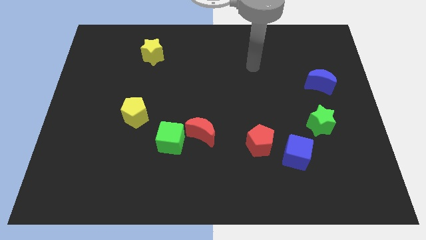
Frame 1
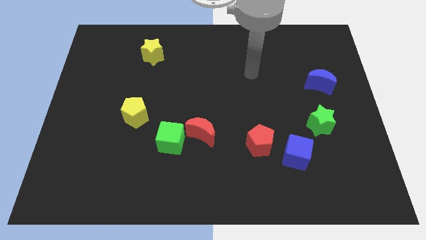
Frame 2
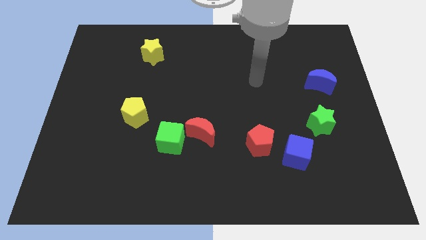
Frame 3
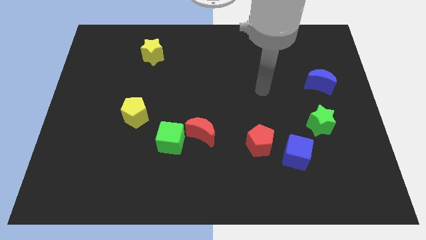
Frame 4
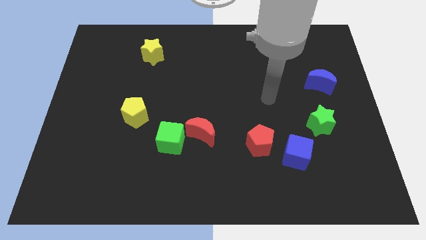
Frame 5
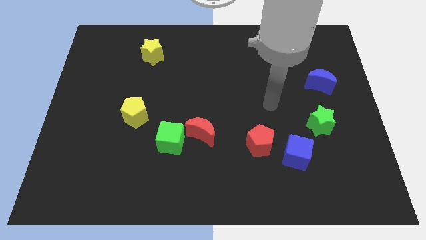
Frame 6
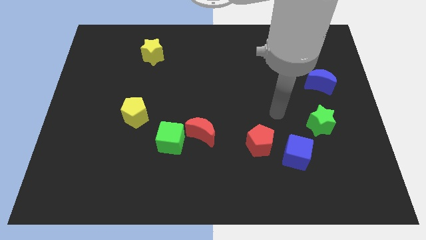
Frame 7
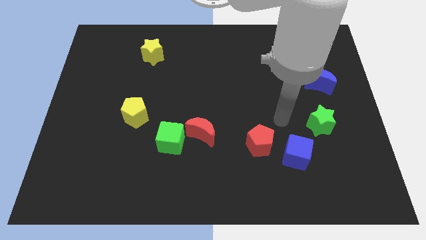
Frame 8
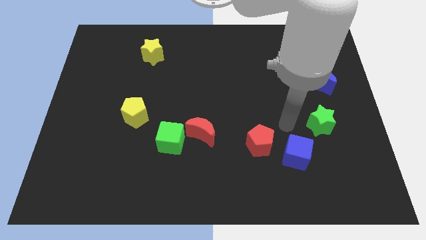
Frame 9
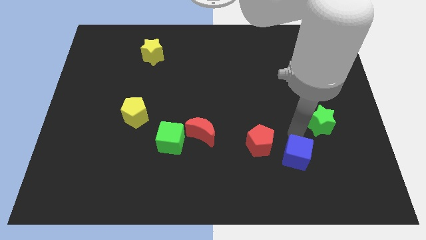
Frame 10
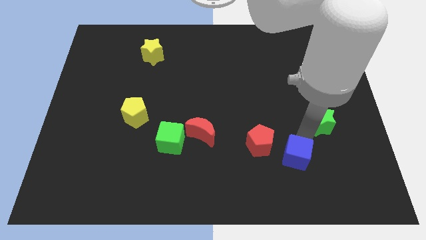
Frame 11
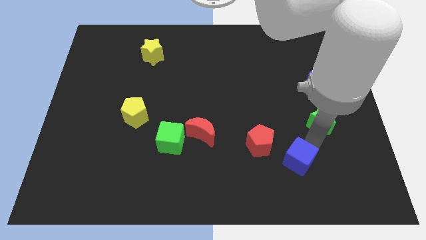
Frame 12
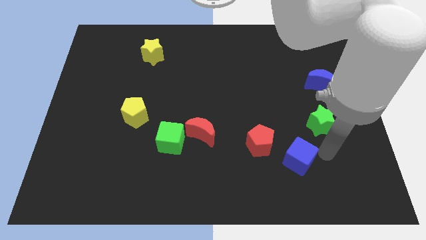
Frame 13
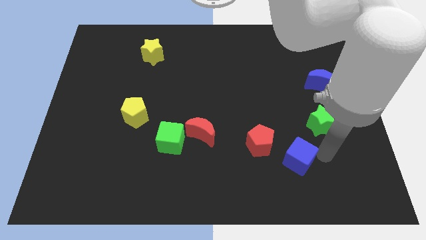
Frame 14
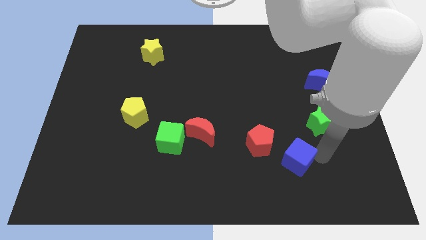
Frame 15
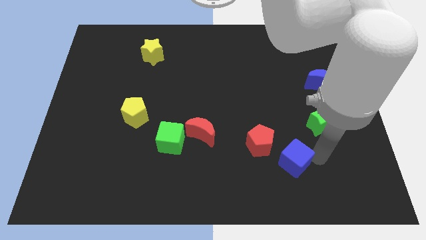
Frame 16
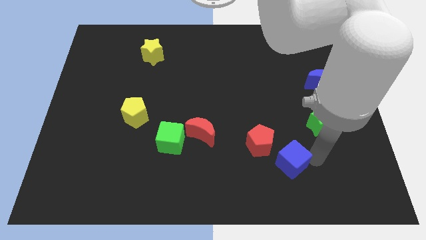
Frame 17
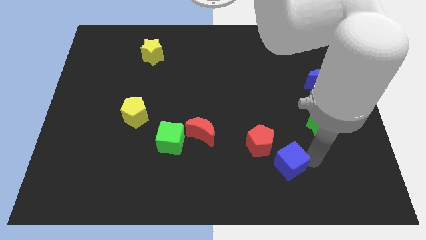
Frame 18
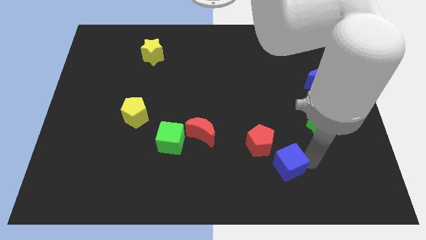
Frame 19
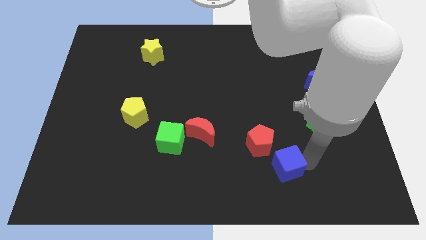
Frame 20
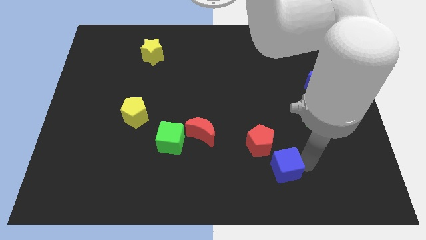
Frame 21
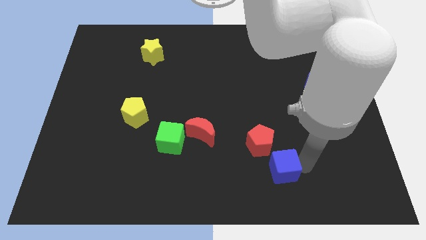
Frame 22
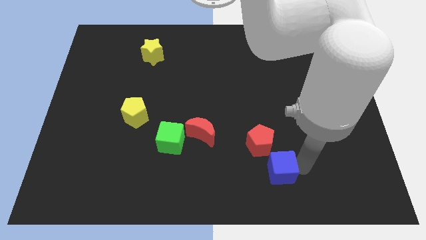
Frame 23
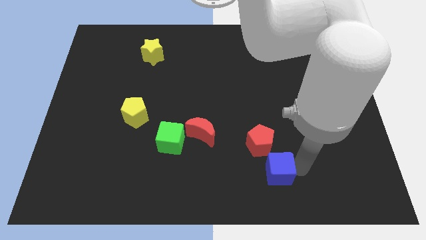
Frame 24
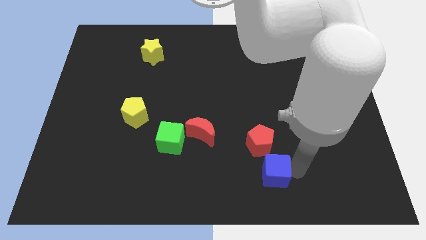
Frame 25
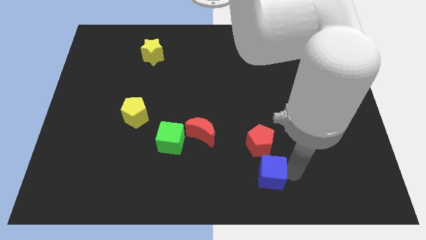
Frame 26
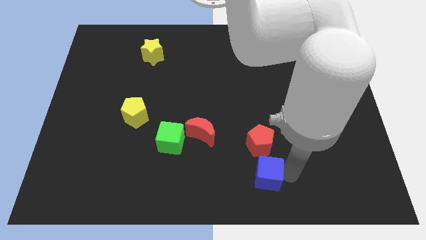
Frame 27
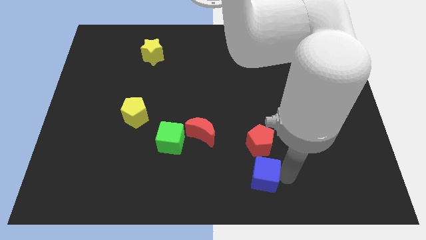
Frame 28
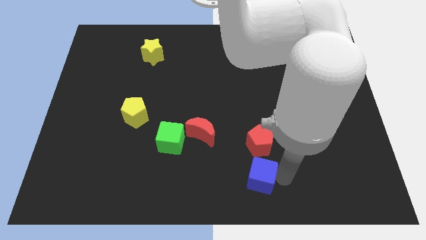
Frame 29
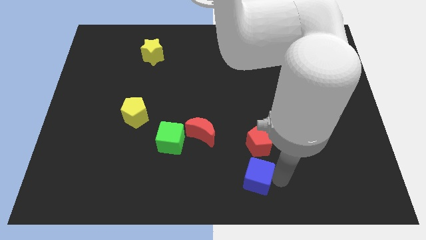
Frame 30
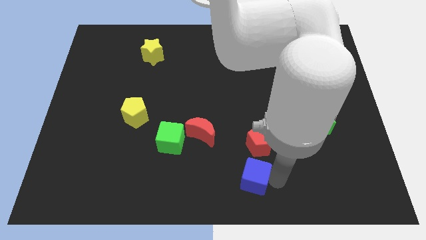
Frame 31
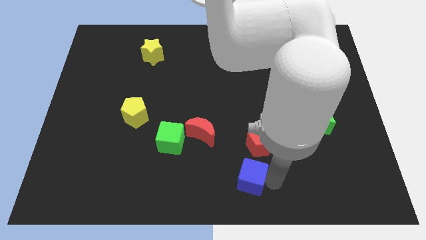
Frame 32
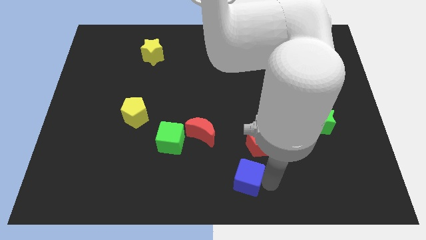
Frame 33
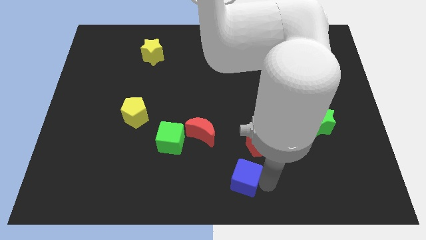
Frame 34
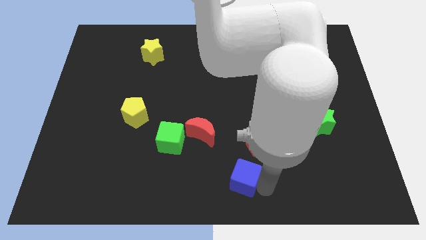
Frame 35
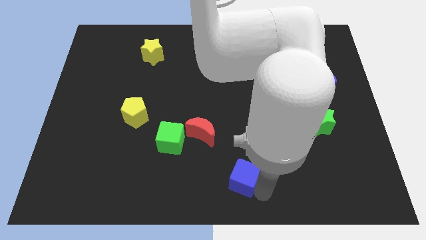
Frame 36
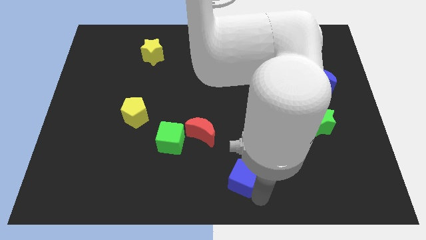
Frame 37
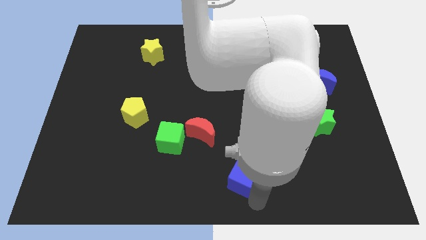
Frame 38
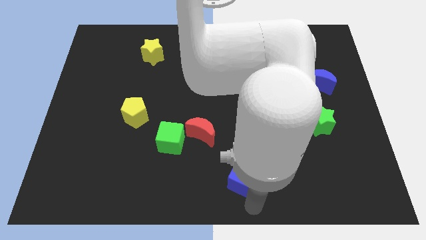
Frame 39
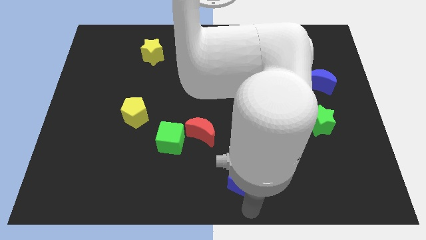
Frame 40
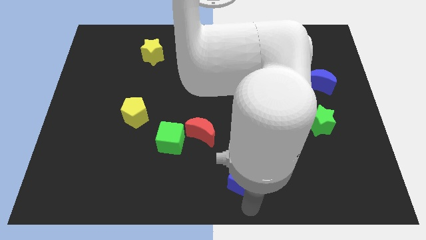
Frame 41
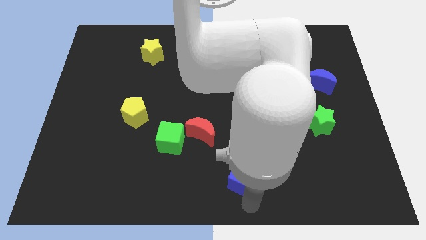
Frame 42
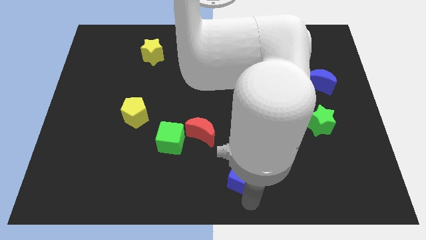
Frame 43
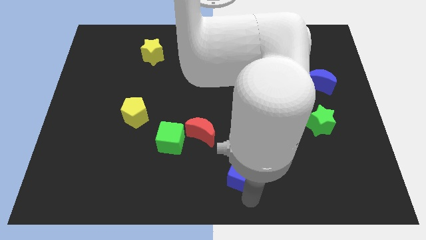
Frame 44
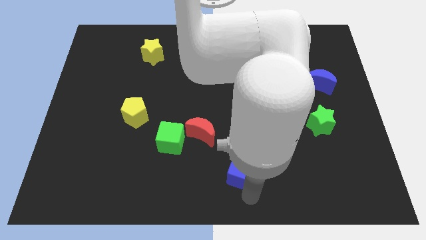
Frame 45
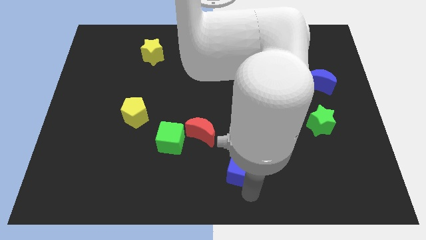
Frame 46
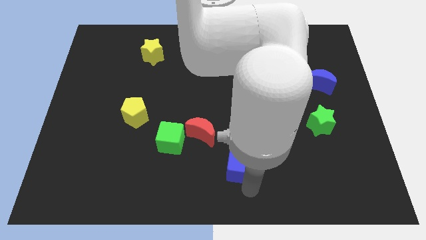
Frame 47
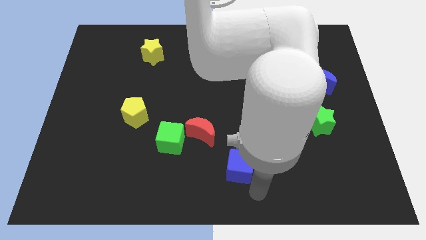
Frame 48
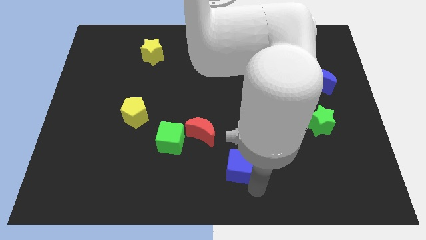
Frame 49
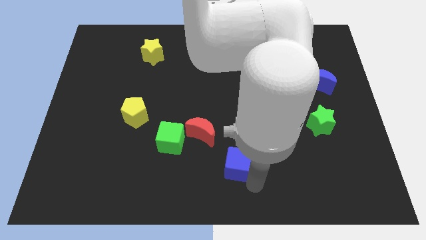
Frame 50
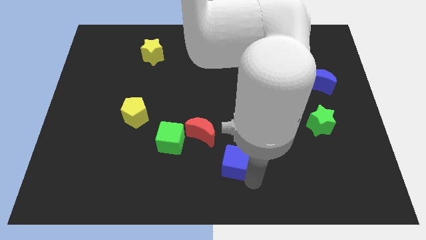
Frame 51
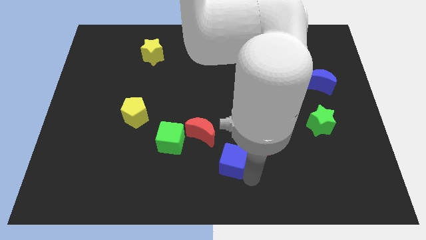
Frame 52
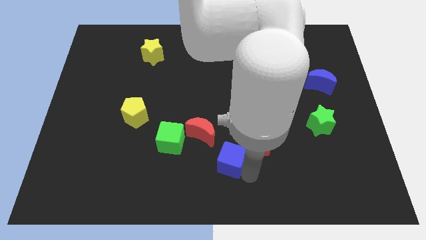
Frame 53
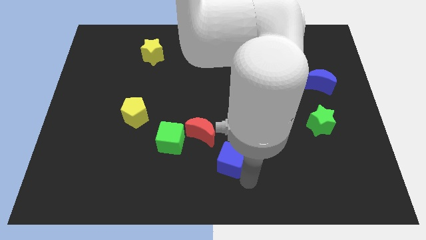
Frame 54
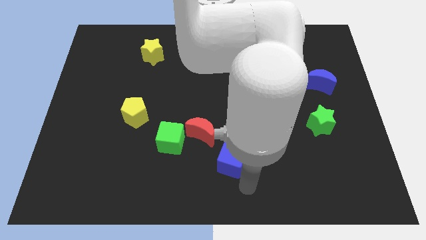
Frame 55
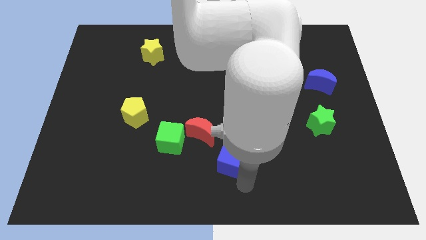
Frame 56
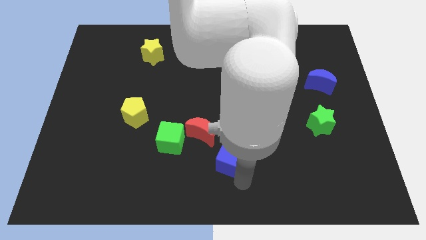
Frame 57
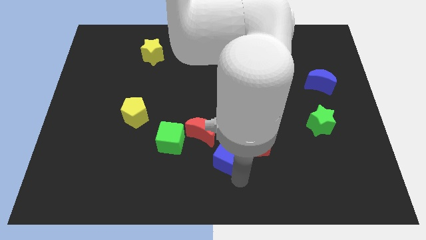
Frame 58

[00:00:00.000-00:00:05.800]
push the blue cube to the right side of the green cube

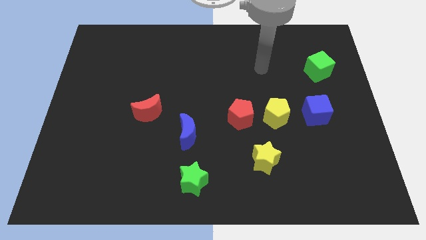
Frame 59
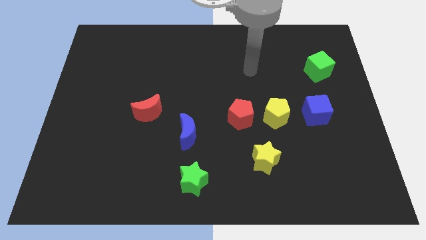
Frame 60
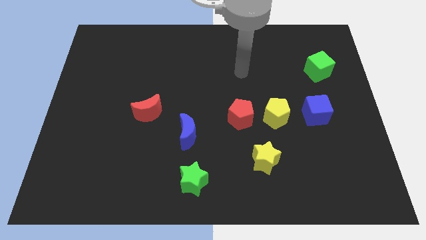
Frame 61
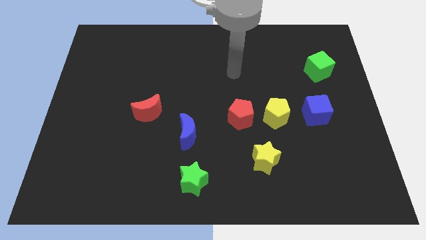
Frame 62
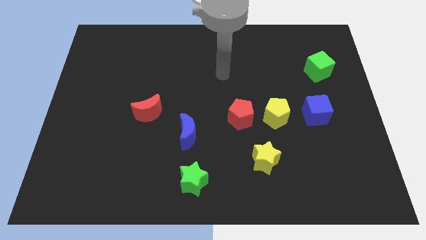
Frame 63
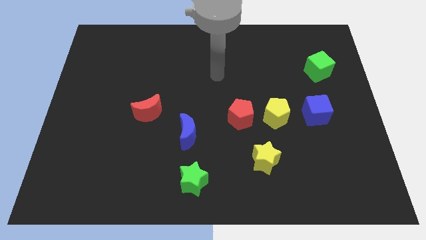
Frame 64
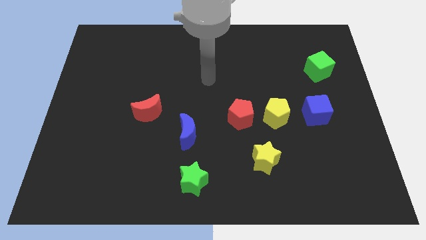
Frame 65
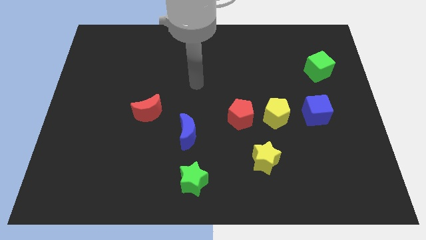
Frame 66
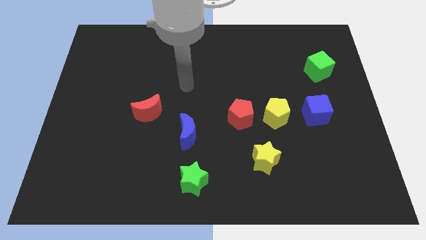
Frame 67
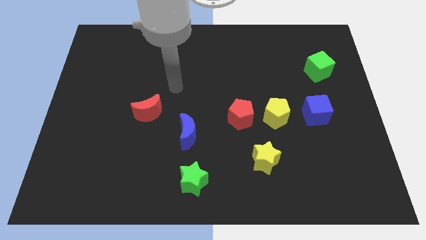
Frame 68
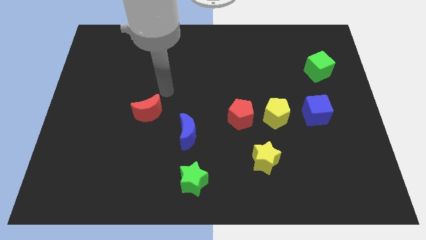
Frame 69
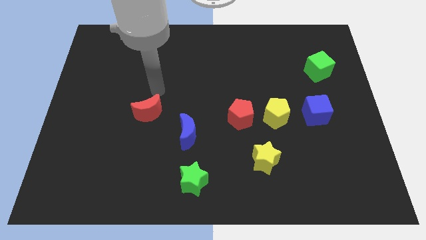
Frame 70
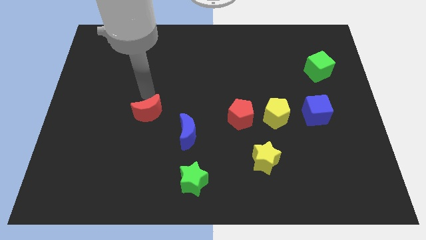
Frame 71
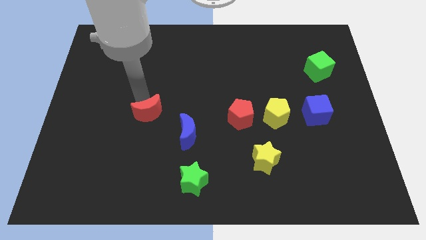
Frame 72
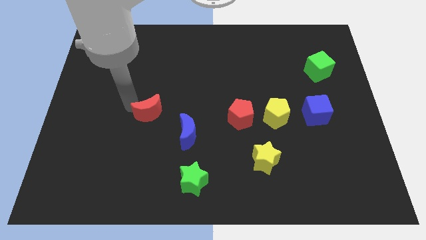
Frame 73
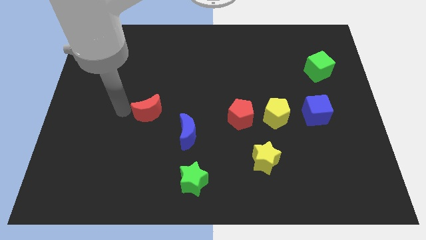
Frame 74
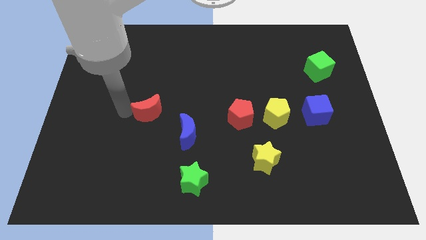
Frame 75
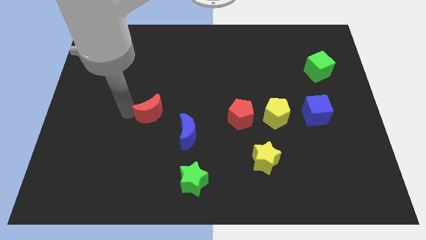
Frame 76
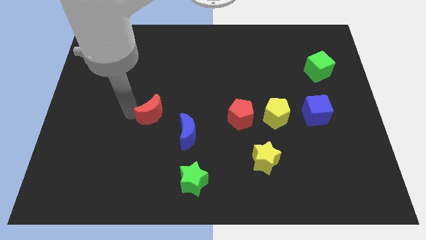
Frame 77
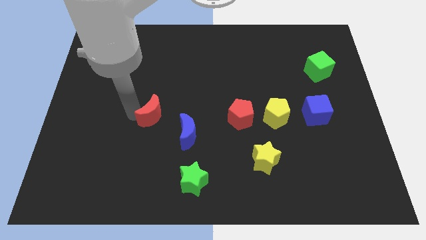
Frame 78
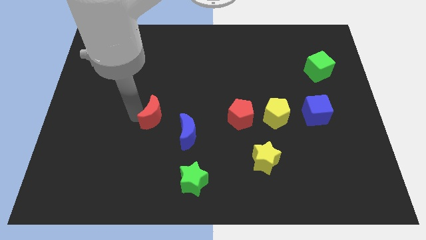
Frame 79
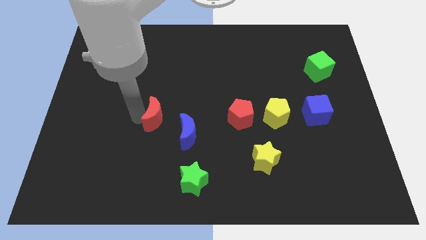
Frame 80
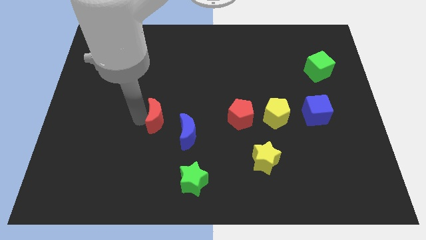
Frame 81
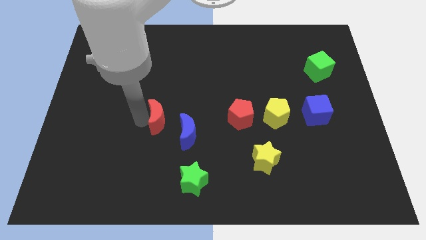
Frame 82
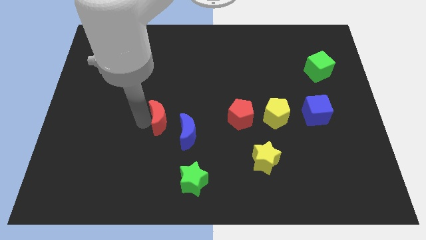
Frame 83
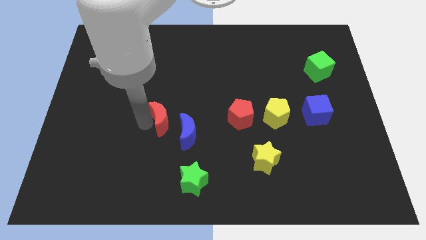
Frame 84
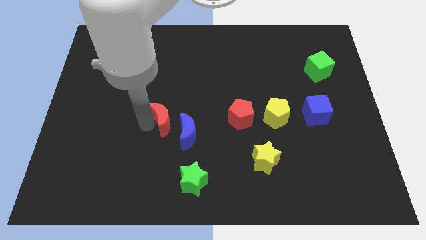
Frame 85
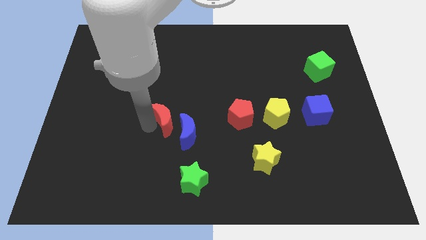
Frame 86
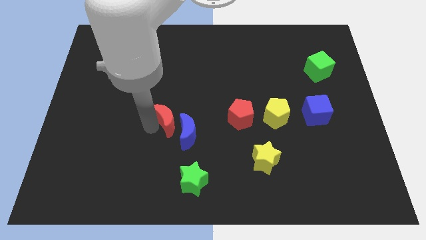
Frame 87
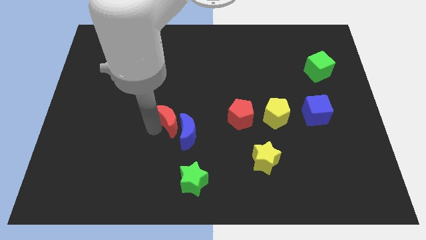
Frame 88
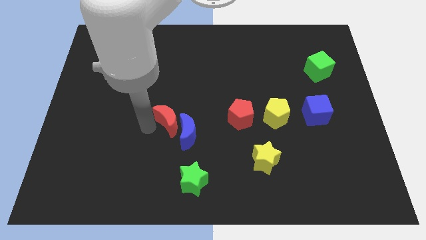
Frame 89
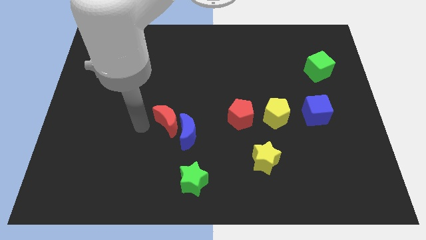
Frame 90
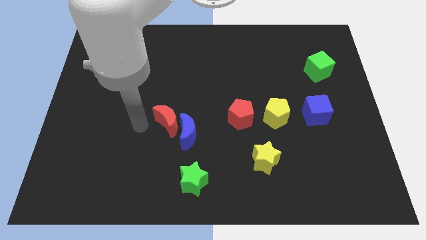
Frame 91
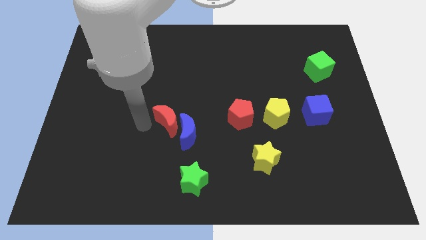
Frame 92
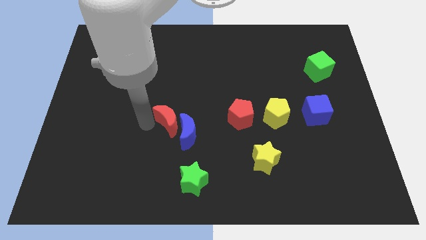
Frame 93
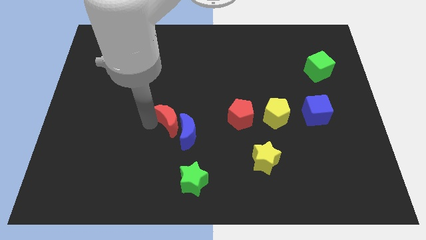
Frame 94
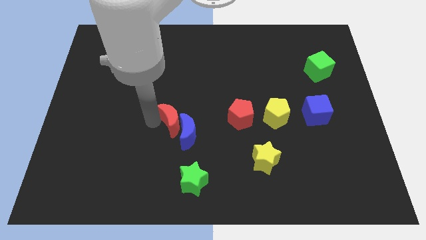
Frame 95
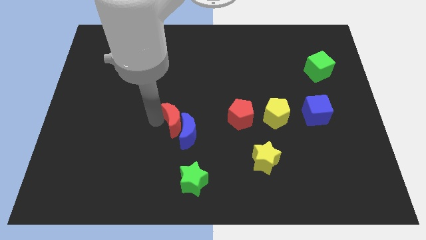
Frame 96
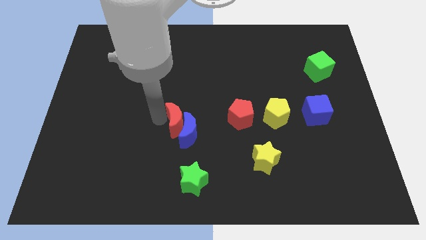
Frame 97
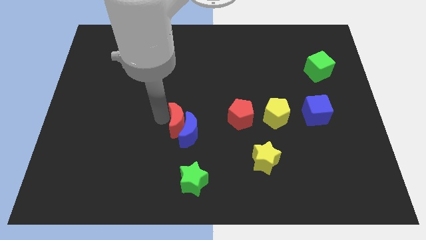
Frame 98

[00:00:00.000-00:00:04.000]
push the red moon above the green star
